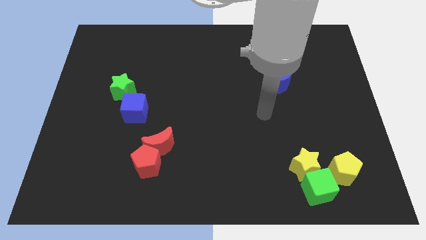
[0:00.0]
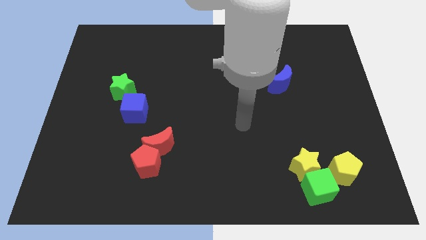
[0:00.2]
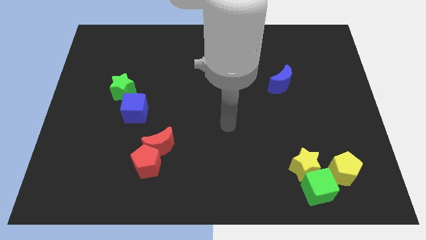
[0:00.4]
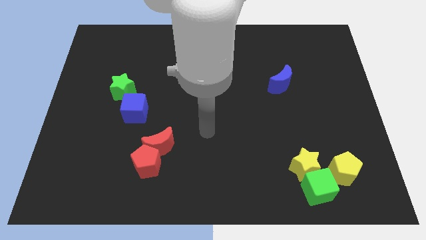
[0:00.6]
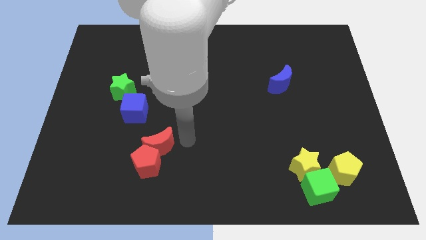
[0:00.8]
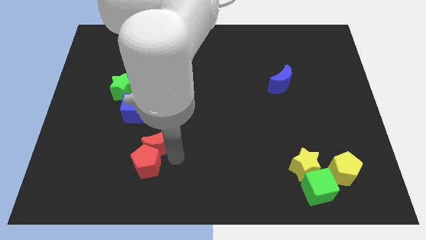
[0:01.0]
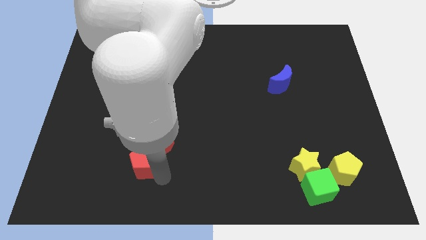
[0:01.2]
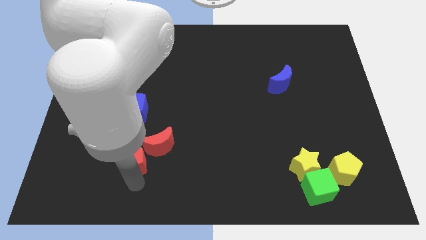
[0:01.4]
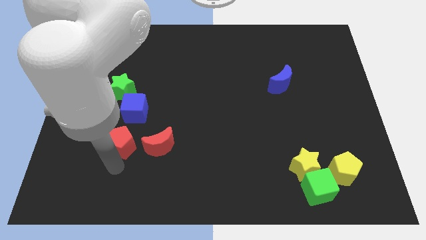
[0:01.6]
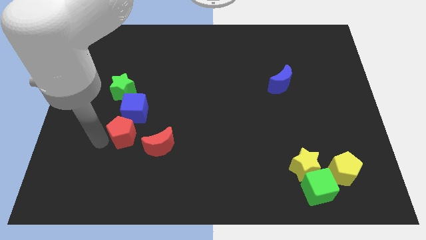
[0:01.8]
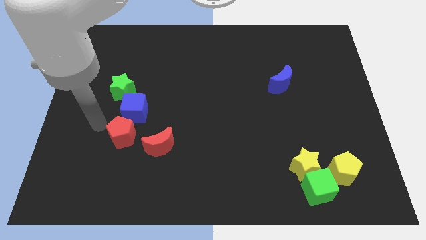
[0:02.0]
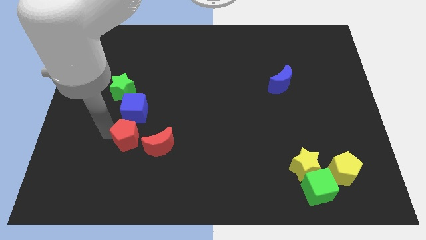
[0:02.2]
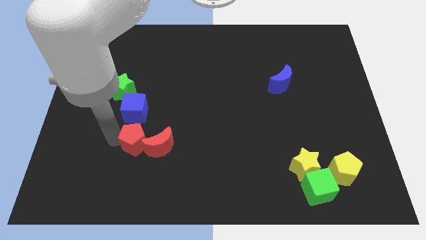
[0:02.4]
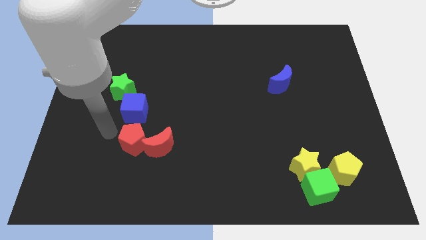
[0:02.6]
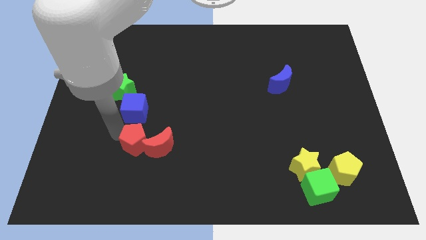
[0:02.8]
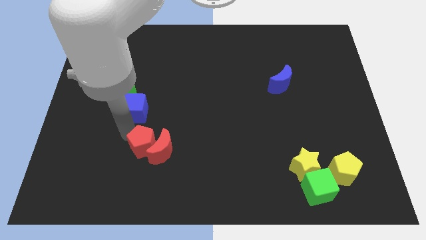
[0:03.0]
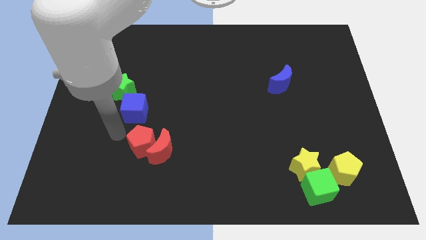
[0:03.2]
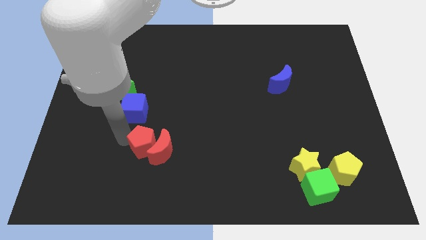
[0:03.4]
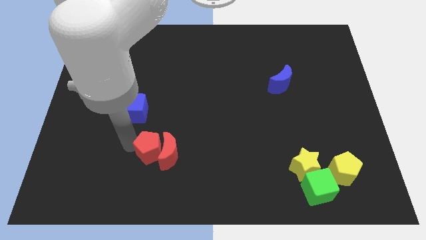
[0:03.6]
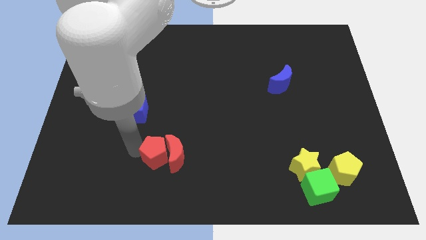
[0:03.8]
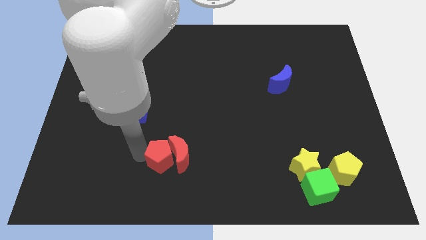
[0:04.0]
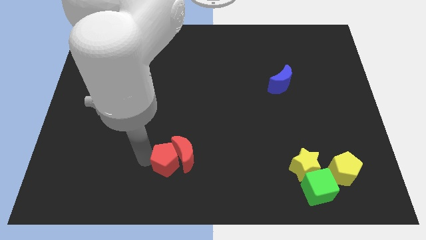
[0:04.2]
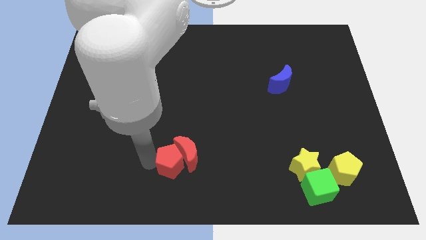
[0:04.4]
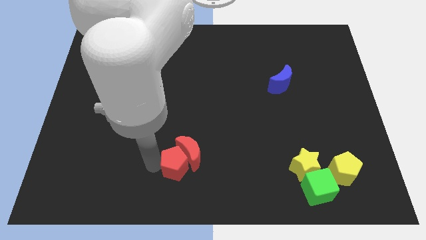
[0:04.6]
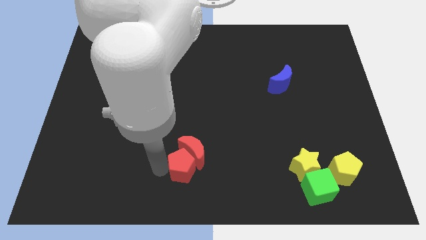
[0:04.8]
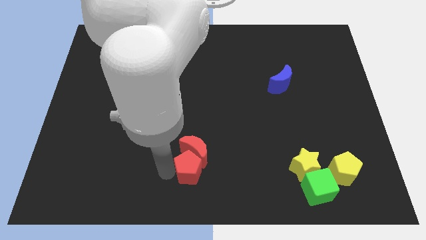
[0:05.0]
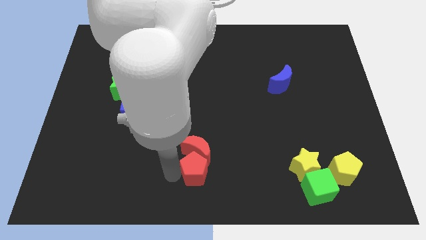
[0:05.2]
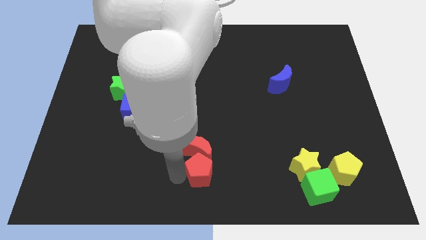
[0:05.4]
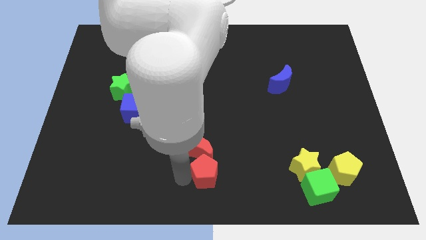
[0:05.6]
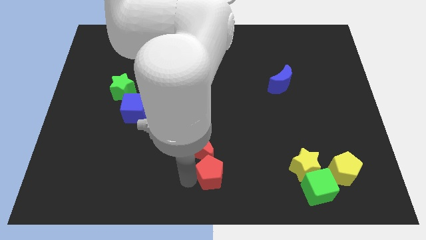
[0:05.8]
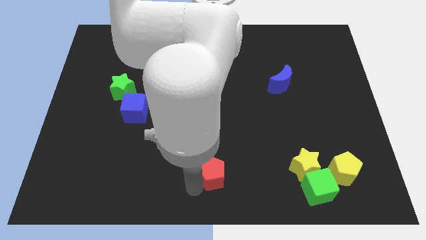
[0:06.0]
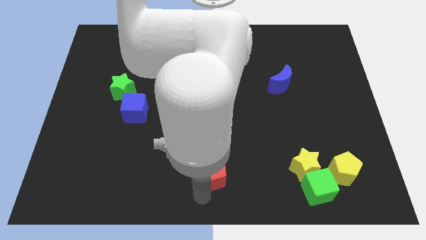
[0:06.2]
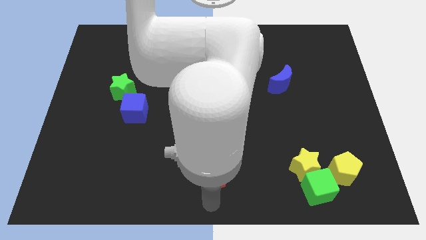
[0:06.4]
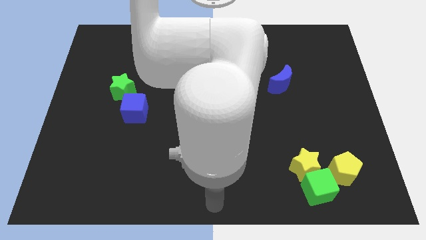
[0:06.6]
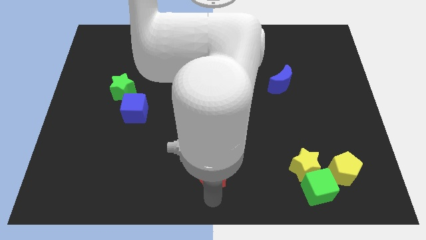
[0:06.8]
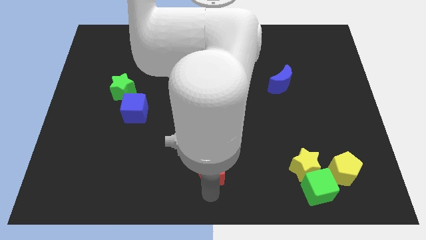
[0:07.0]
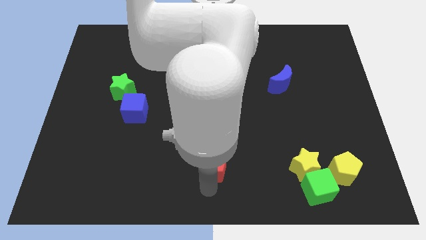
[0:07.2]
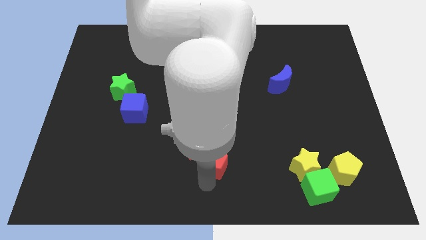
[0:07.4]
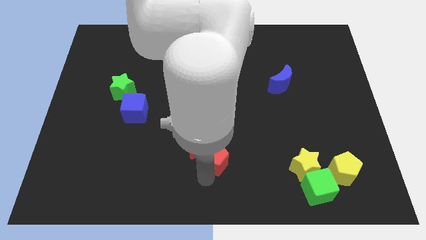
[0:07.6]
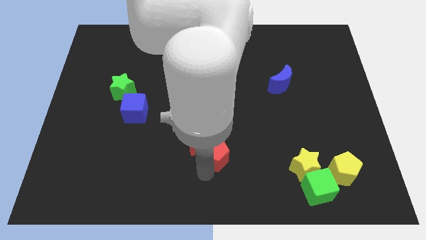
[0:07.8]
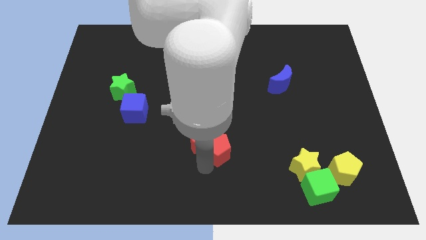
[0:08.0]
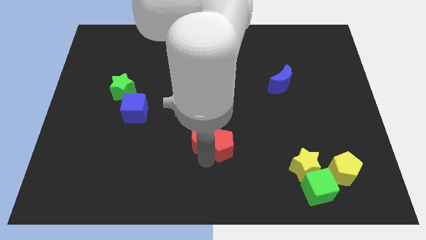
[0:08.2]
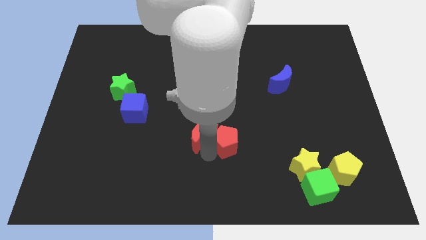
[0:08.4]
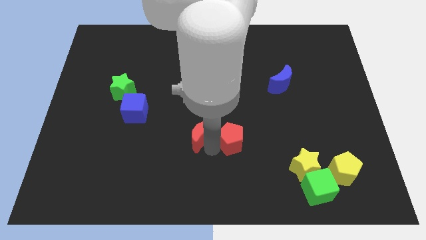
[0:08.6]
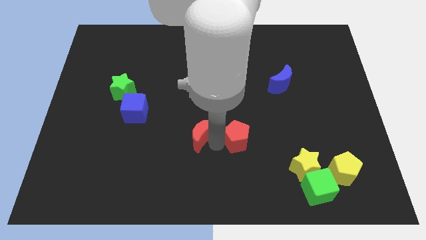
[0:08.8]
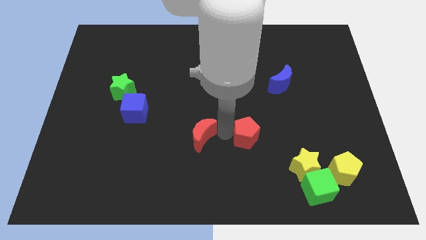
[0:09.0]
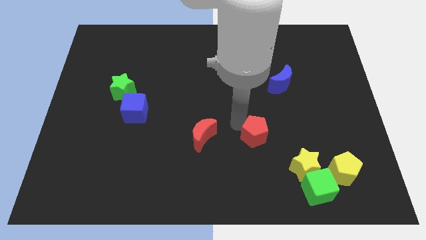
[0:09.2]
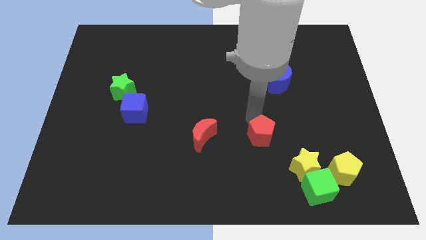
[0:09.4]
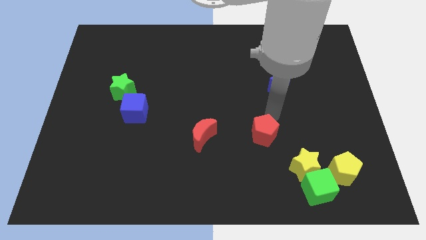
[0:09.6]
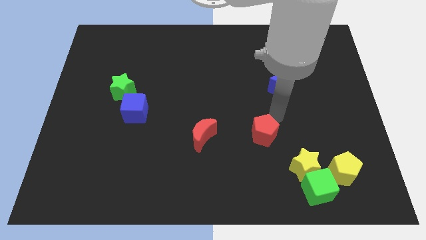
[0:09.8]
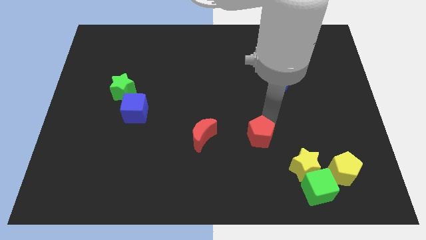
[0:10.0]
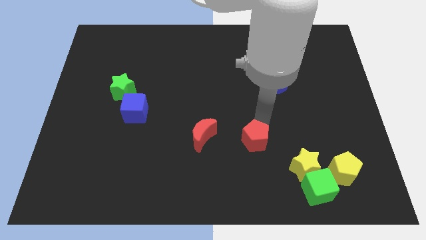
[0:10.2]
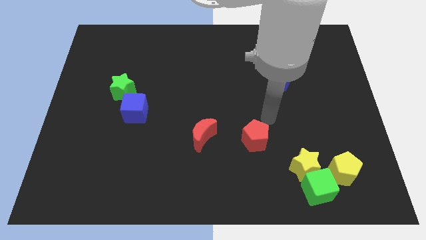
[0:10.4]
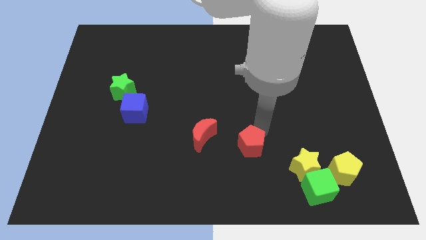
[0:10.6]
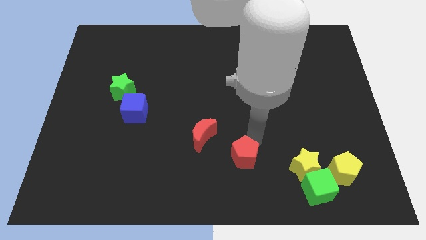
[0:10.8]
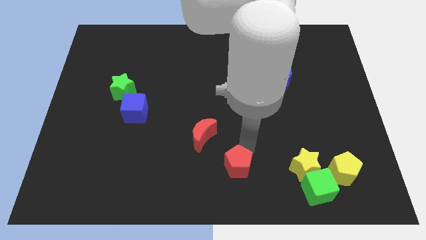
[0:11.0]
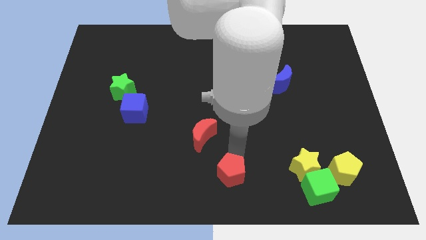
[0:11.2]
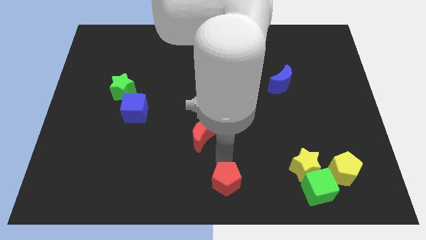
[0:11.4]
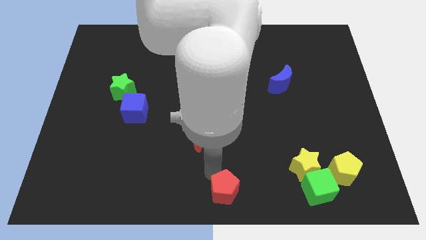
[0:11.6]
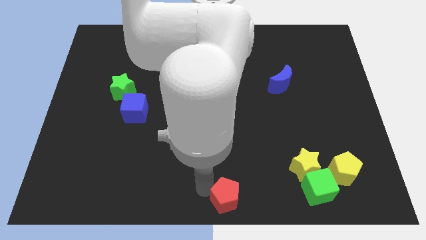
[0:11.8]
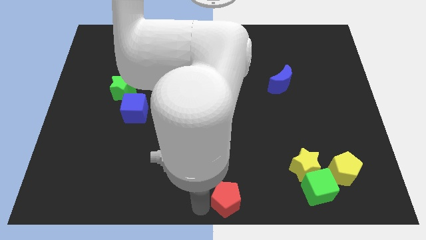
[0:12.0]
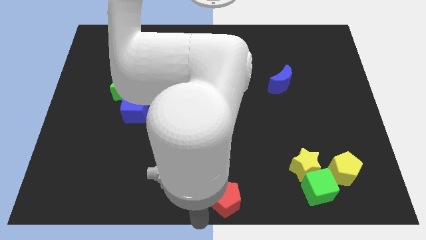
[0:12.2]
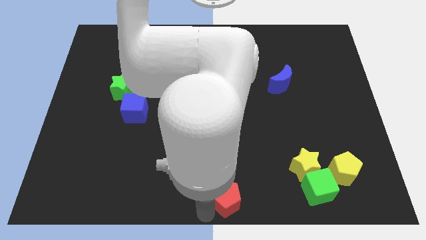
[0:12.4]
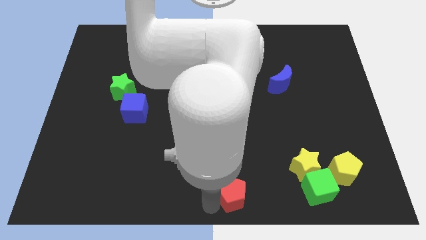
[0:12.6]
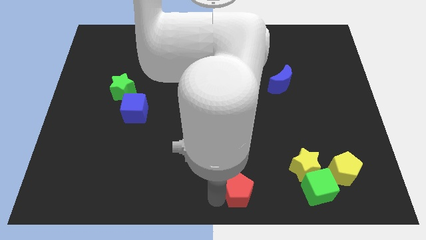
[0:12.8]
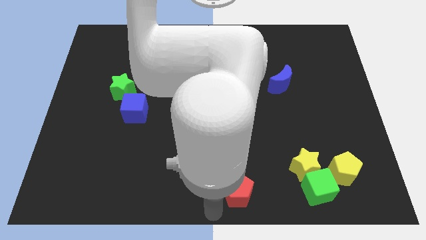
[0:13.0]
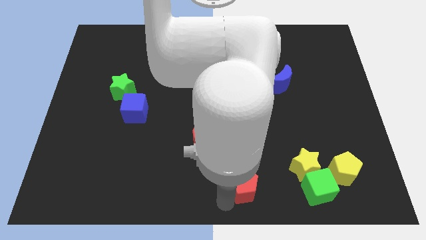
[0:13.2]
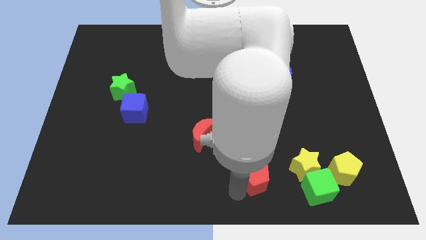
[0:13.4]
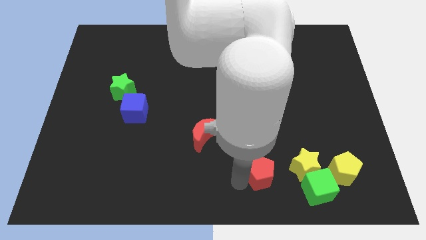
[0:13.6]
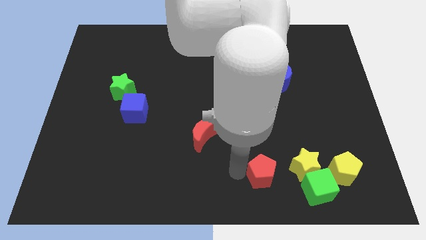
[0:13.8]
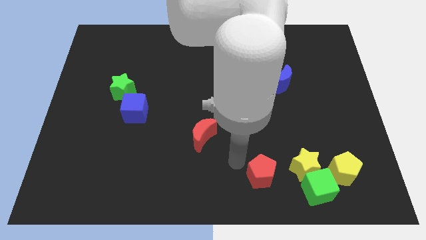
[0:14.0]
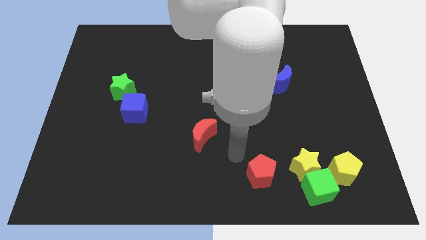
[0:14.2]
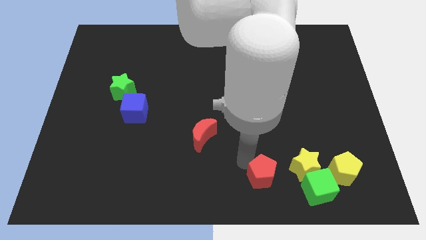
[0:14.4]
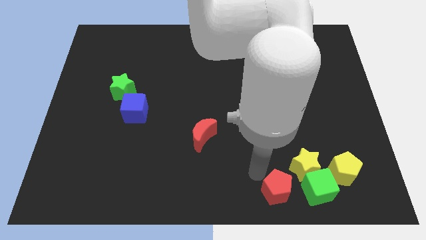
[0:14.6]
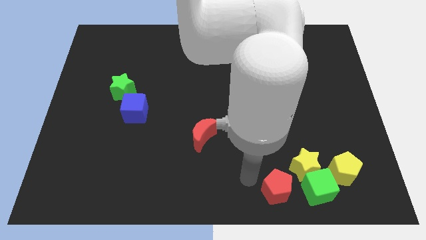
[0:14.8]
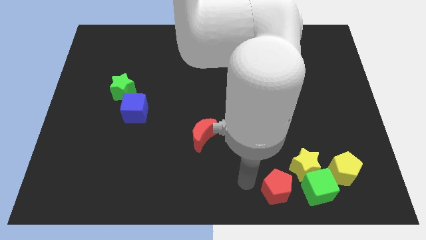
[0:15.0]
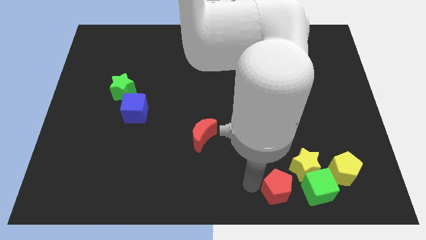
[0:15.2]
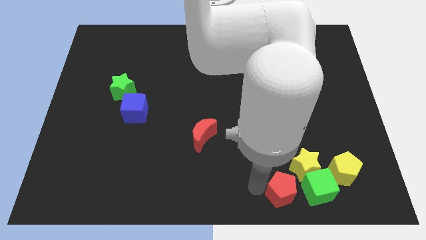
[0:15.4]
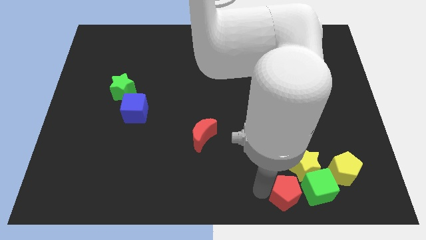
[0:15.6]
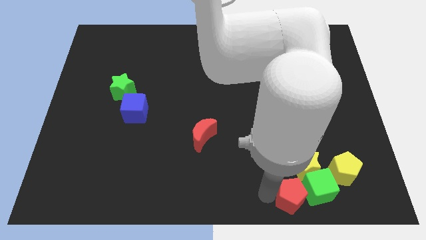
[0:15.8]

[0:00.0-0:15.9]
move the red pentagon close to the green cube
